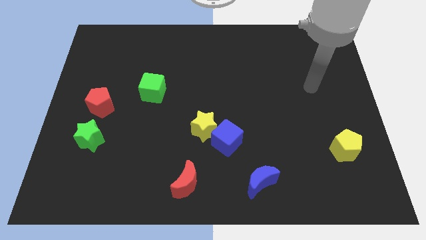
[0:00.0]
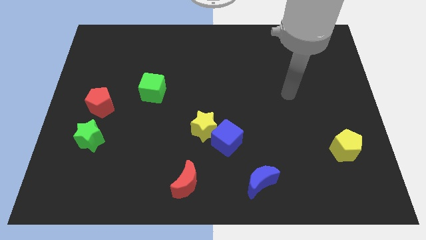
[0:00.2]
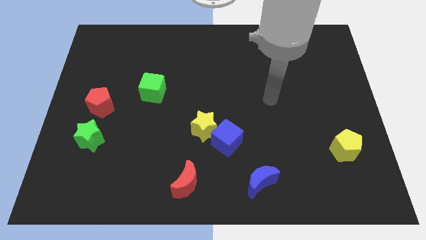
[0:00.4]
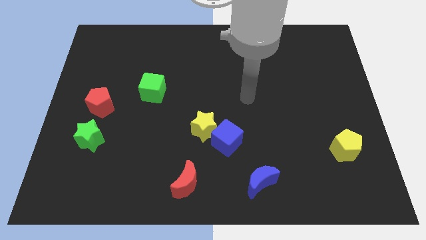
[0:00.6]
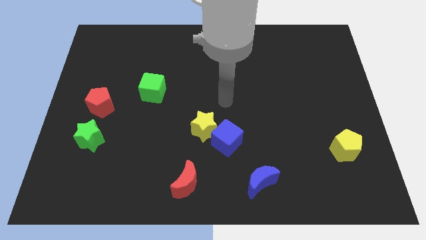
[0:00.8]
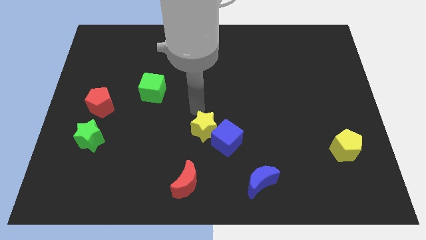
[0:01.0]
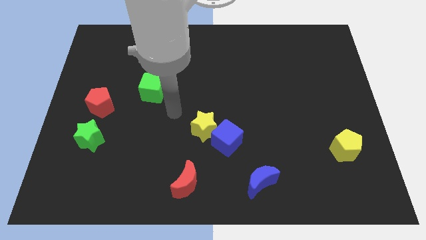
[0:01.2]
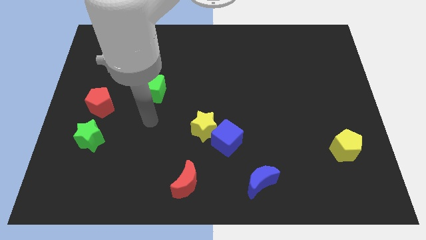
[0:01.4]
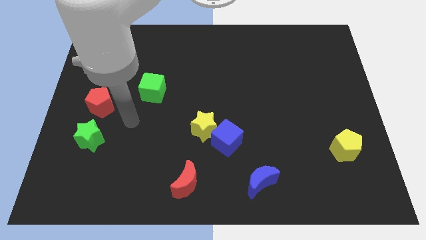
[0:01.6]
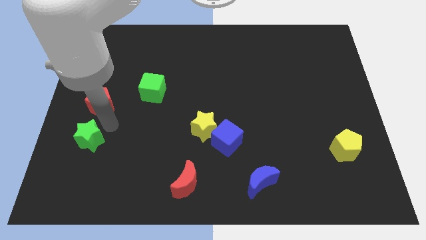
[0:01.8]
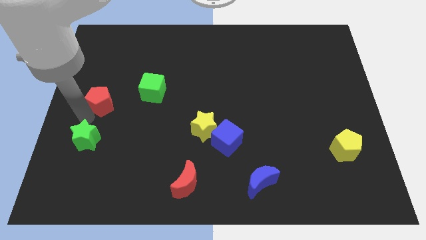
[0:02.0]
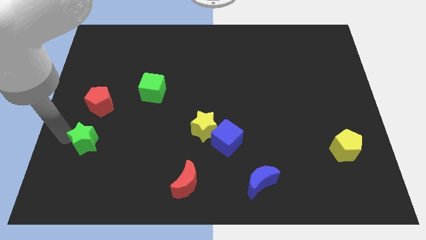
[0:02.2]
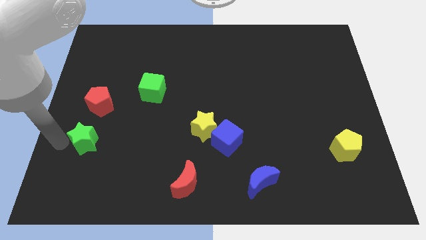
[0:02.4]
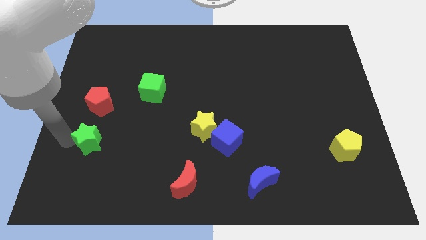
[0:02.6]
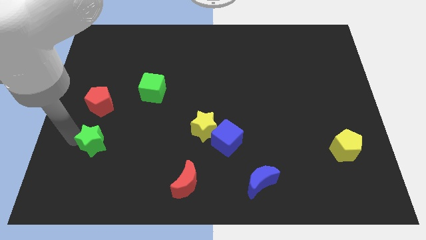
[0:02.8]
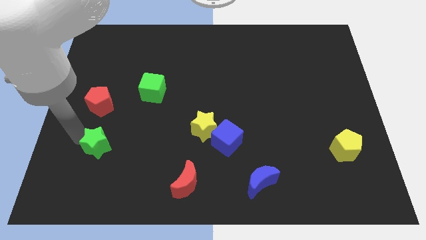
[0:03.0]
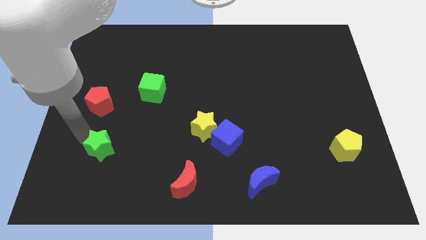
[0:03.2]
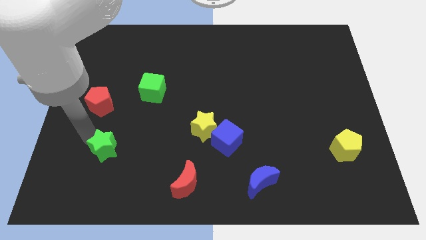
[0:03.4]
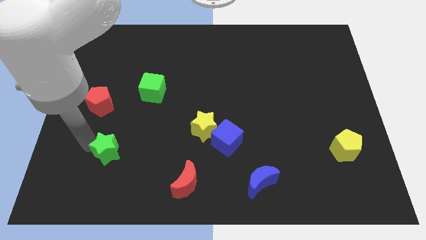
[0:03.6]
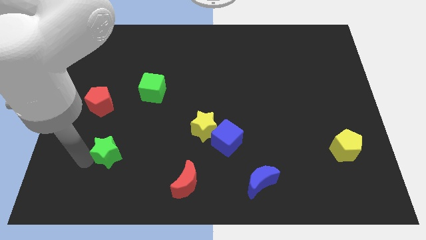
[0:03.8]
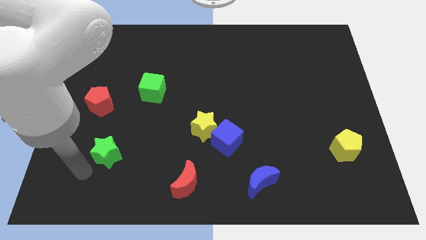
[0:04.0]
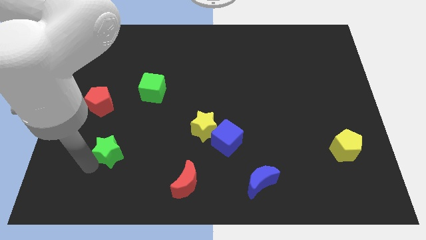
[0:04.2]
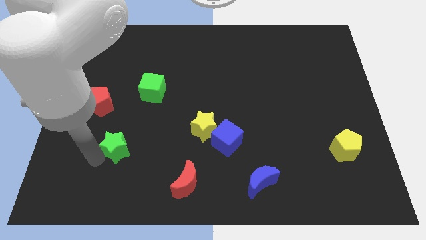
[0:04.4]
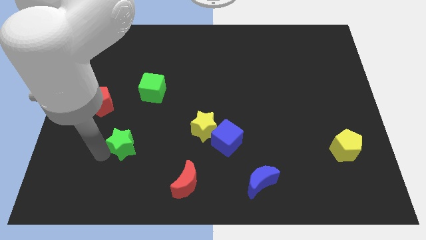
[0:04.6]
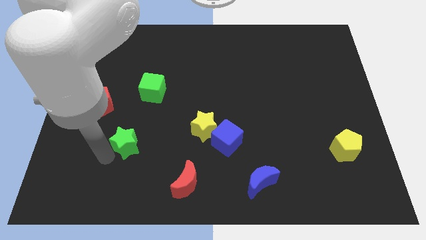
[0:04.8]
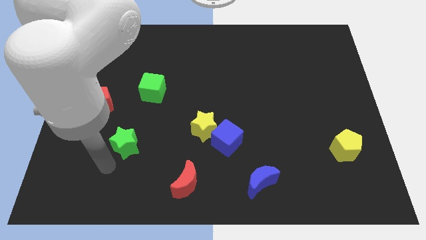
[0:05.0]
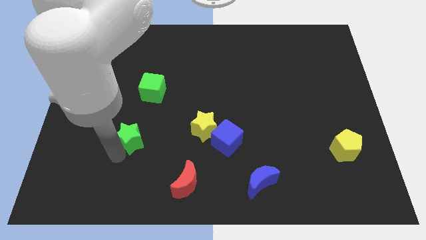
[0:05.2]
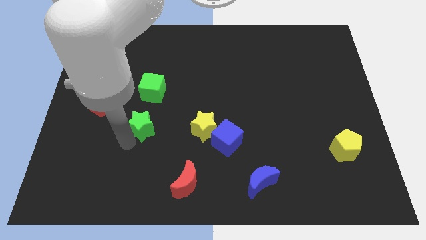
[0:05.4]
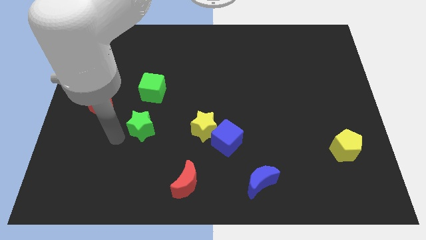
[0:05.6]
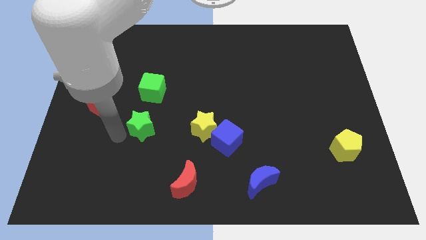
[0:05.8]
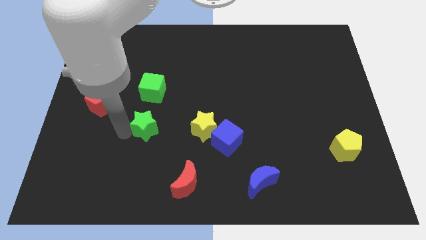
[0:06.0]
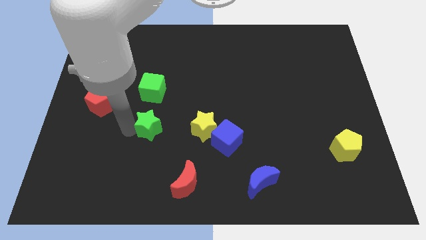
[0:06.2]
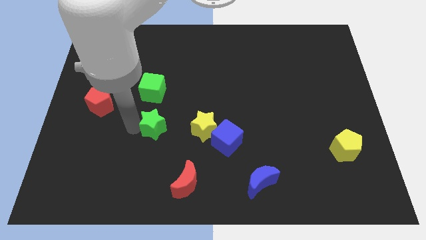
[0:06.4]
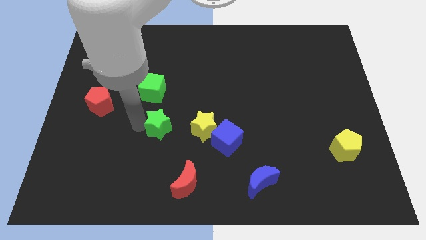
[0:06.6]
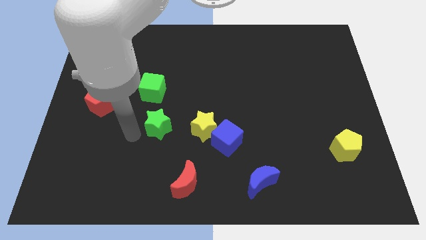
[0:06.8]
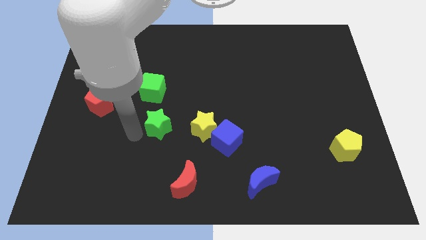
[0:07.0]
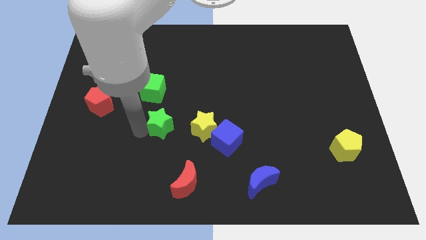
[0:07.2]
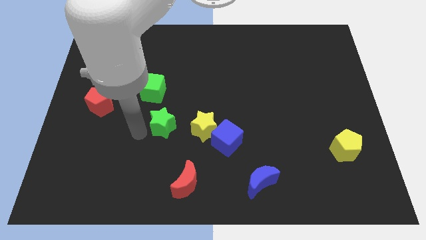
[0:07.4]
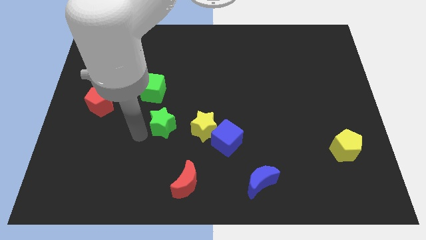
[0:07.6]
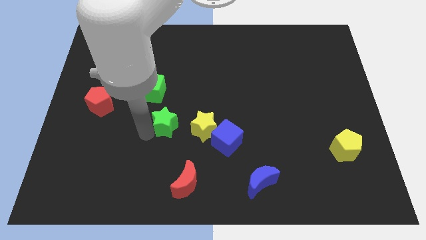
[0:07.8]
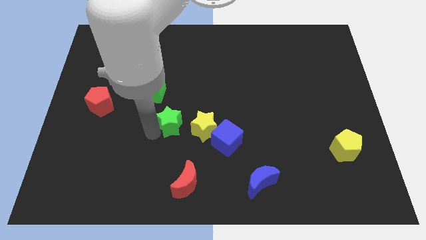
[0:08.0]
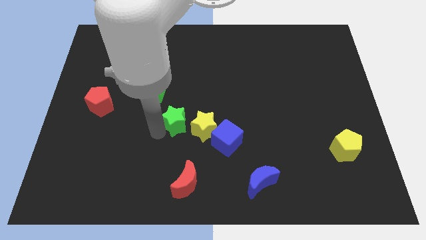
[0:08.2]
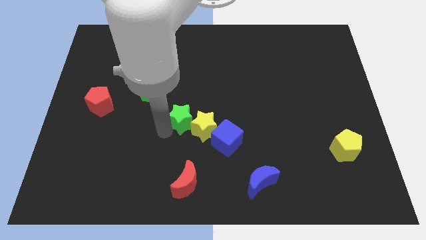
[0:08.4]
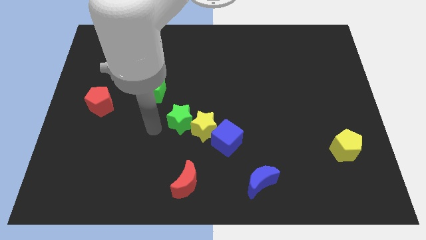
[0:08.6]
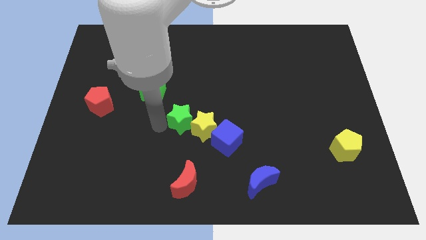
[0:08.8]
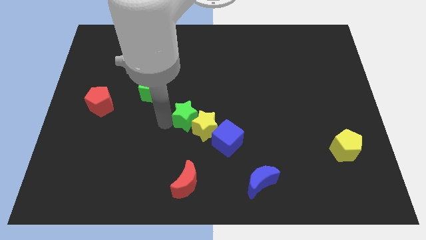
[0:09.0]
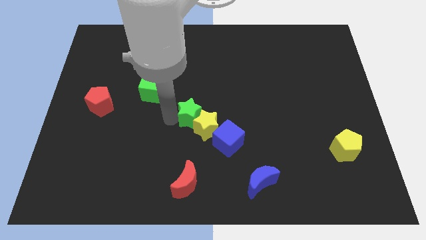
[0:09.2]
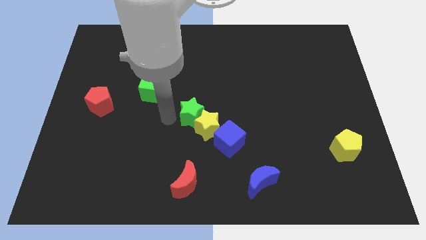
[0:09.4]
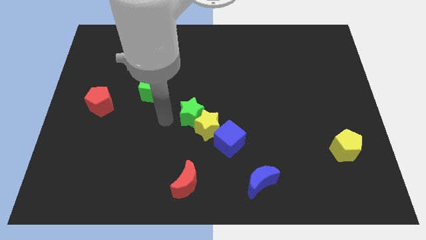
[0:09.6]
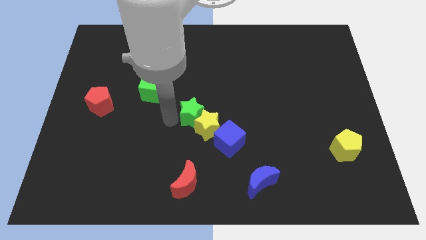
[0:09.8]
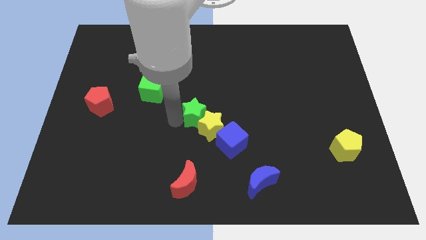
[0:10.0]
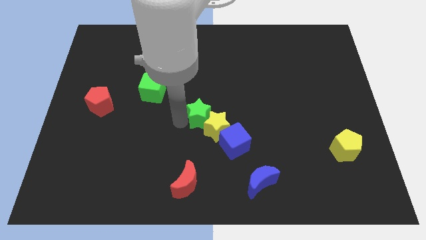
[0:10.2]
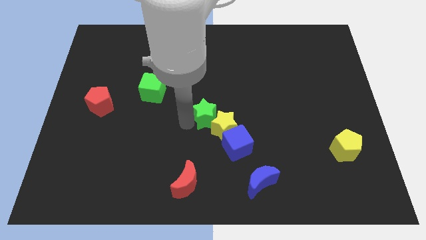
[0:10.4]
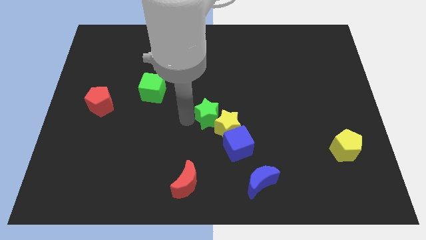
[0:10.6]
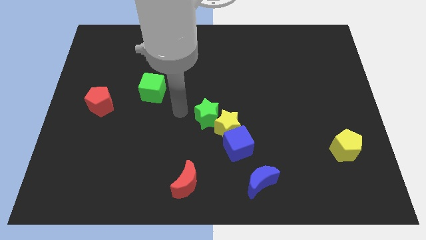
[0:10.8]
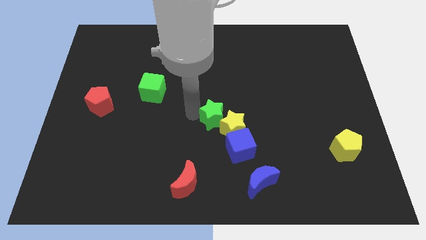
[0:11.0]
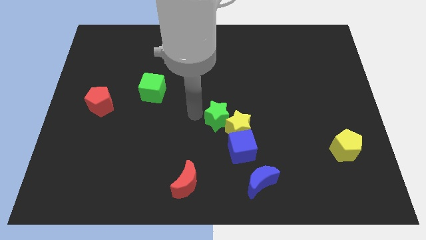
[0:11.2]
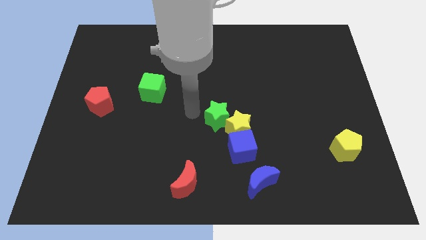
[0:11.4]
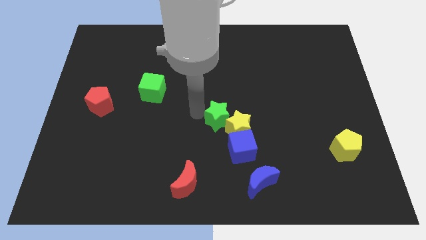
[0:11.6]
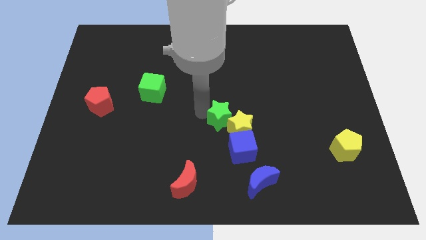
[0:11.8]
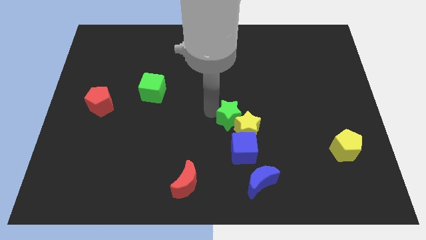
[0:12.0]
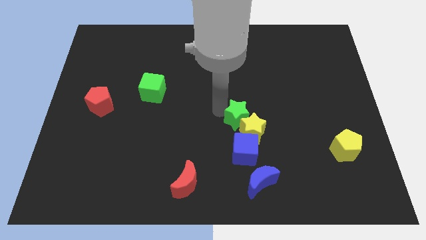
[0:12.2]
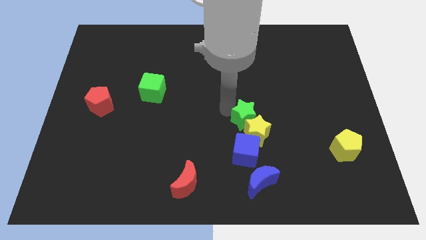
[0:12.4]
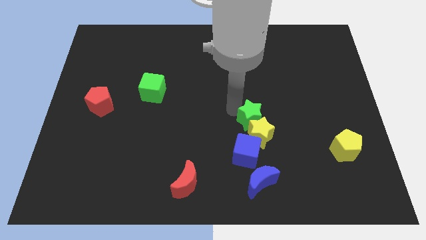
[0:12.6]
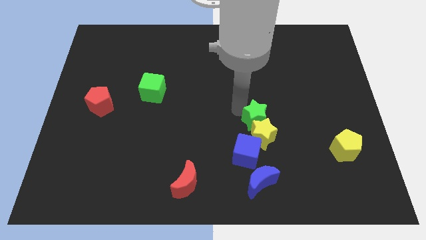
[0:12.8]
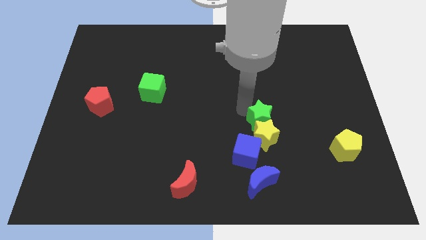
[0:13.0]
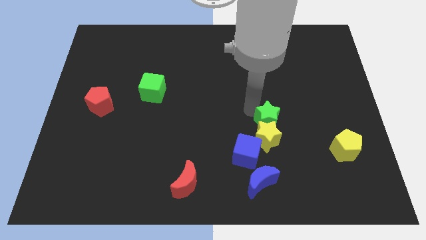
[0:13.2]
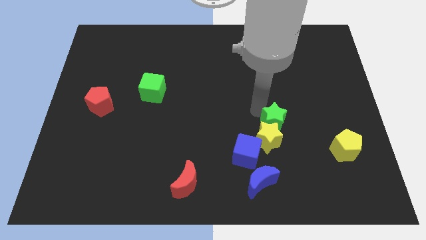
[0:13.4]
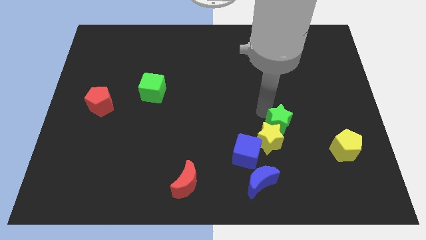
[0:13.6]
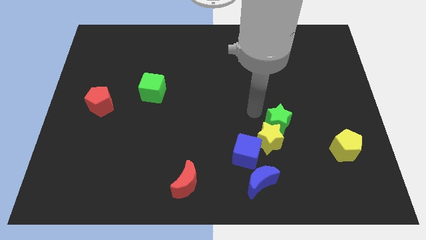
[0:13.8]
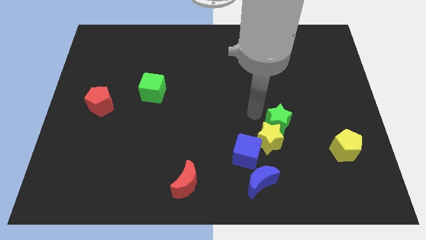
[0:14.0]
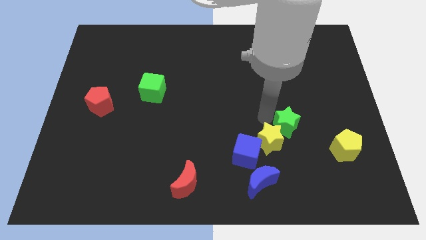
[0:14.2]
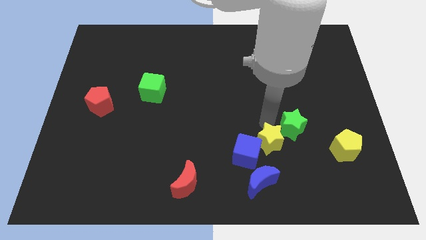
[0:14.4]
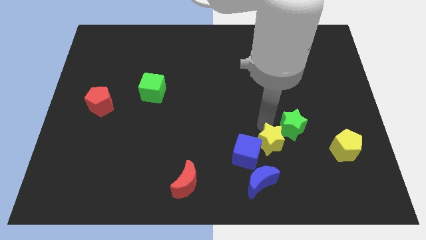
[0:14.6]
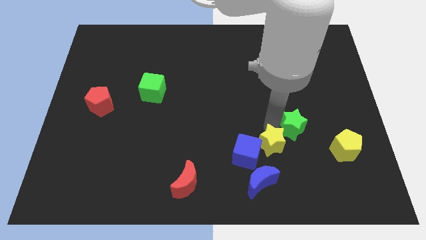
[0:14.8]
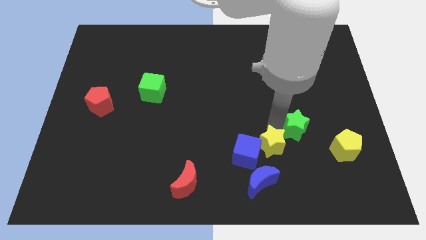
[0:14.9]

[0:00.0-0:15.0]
push the green star to the top left of the yellow pentagon
